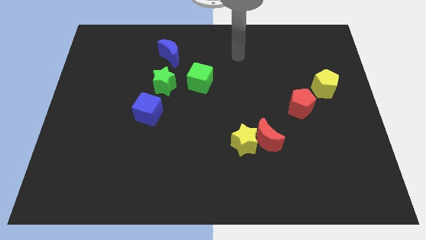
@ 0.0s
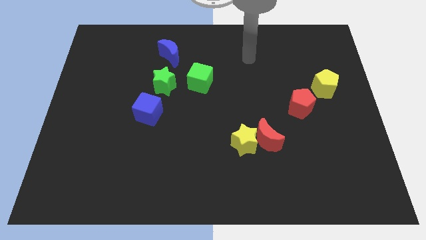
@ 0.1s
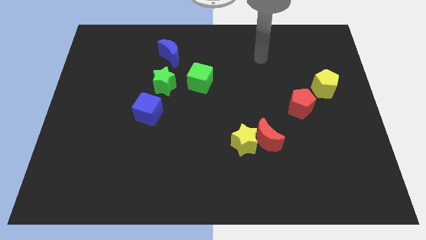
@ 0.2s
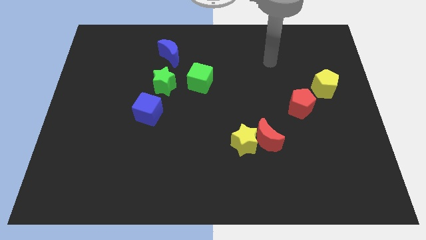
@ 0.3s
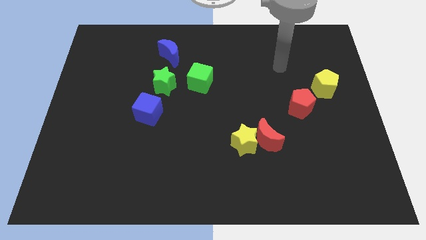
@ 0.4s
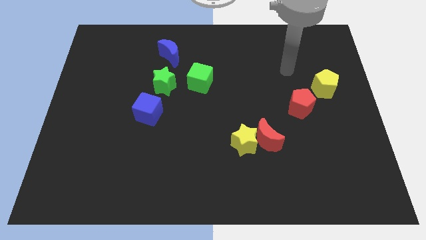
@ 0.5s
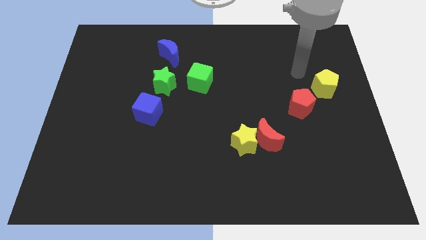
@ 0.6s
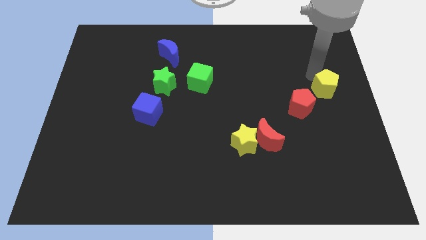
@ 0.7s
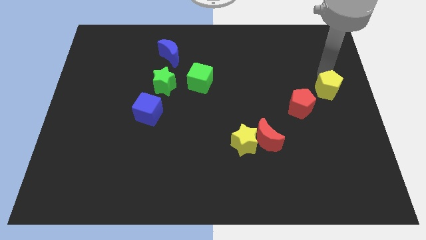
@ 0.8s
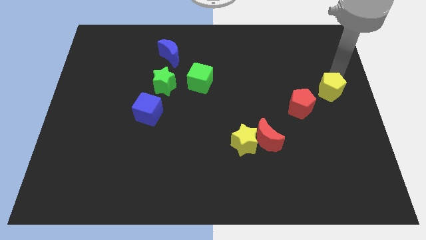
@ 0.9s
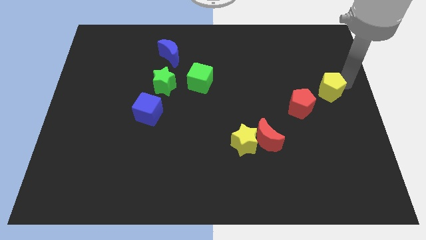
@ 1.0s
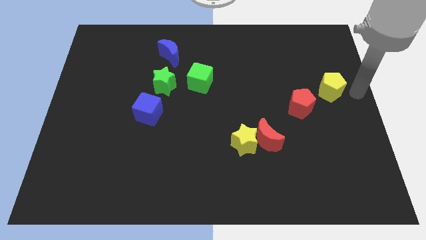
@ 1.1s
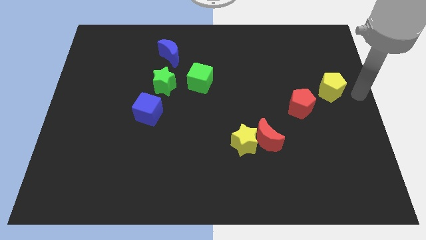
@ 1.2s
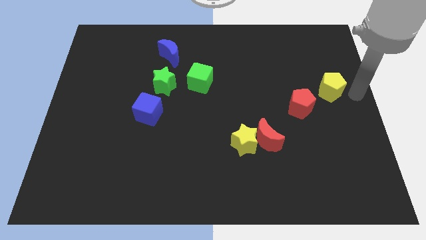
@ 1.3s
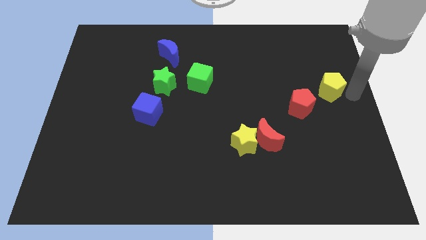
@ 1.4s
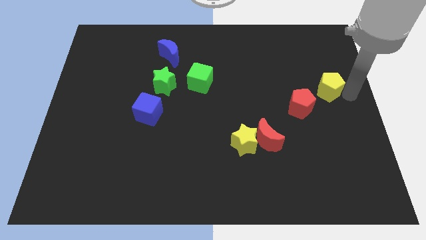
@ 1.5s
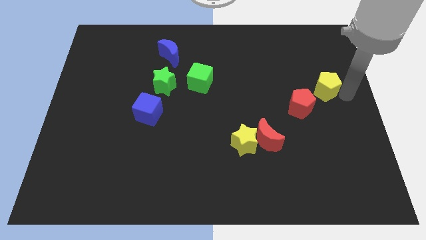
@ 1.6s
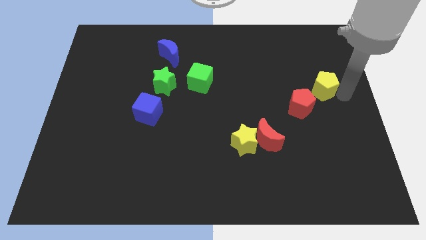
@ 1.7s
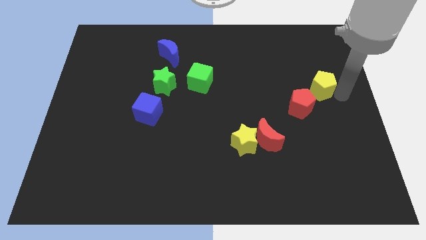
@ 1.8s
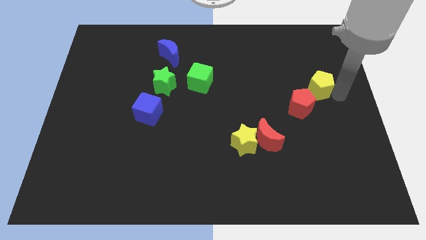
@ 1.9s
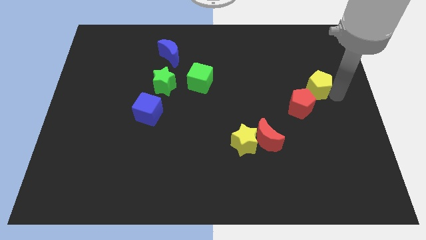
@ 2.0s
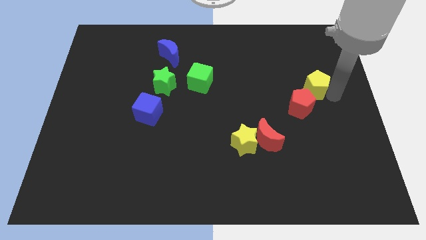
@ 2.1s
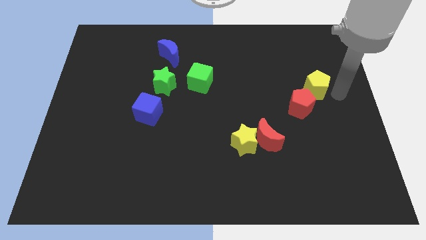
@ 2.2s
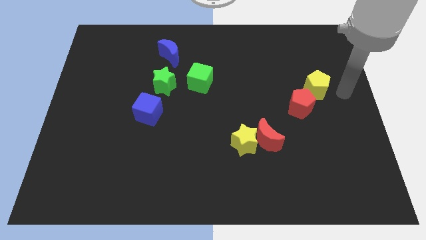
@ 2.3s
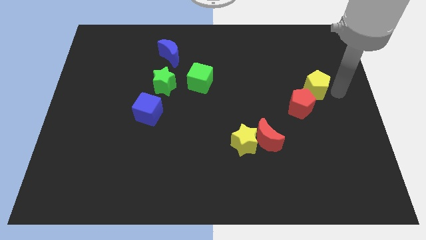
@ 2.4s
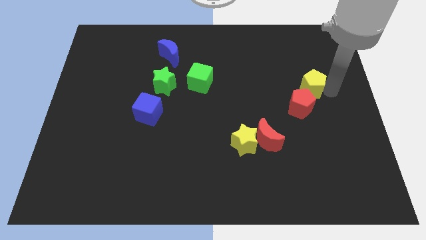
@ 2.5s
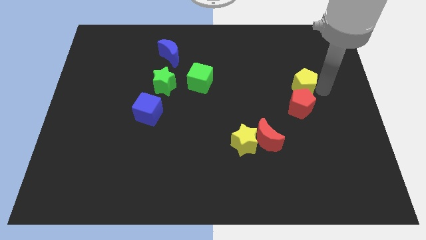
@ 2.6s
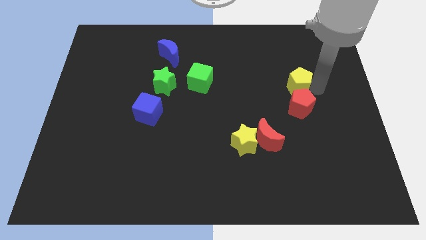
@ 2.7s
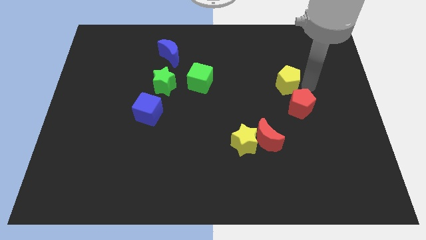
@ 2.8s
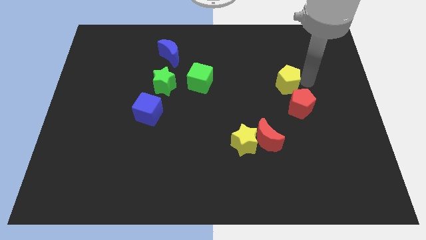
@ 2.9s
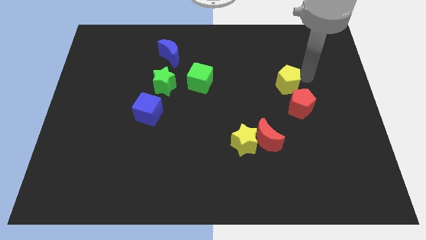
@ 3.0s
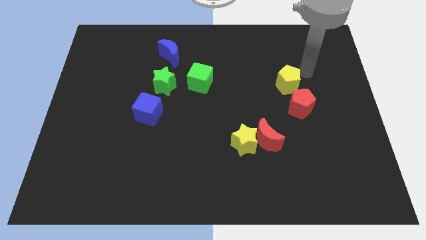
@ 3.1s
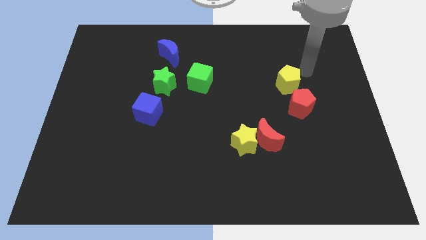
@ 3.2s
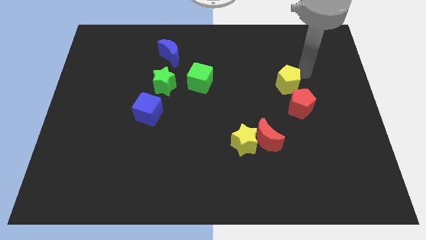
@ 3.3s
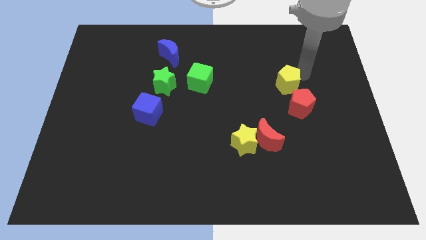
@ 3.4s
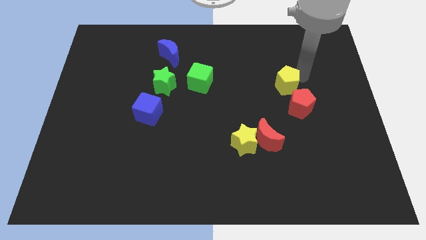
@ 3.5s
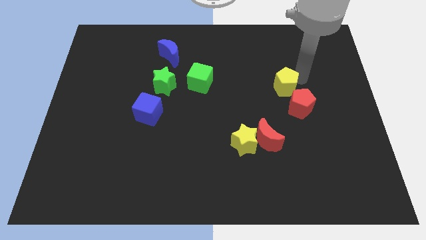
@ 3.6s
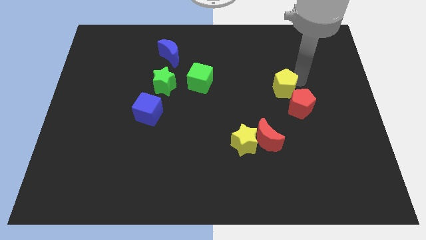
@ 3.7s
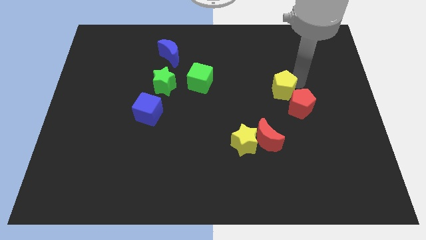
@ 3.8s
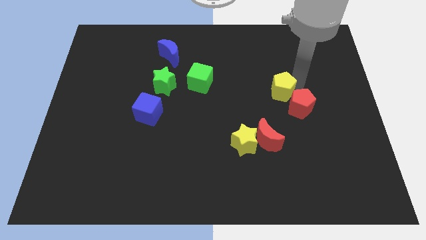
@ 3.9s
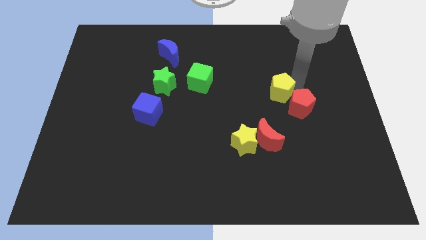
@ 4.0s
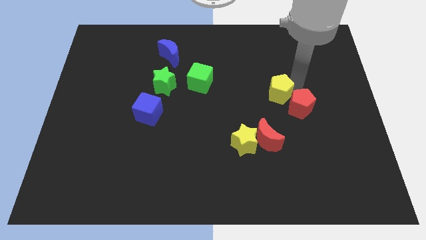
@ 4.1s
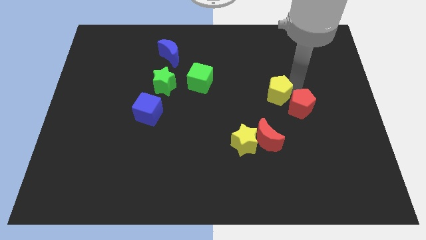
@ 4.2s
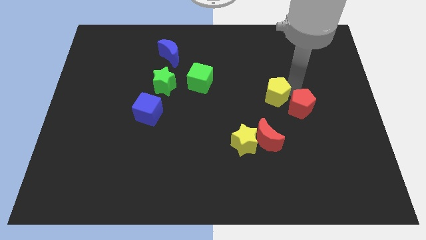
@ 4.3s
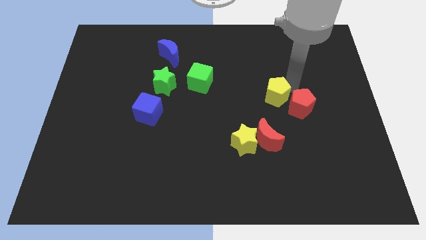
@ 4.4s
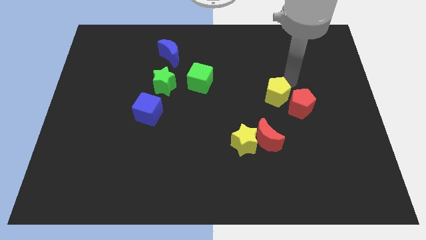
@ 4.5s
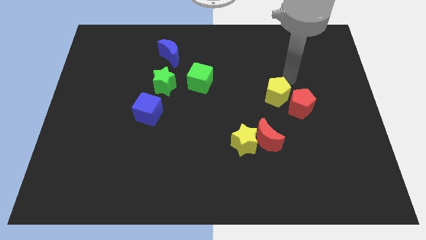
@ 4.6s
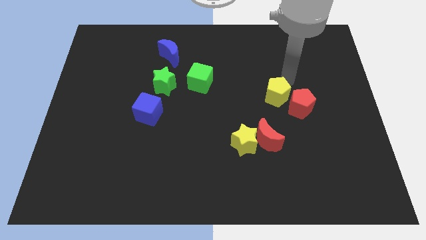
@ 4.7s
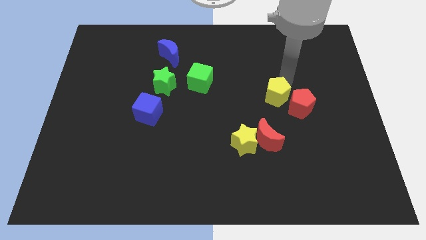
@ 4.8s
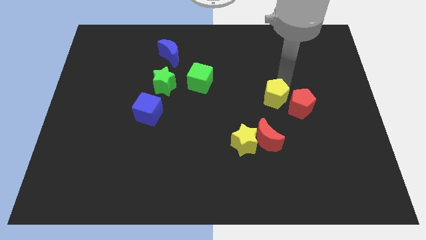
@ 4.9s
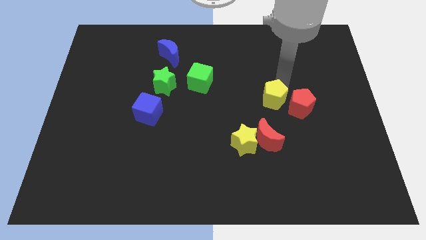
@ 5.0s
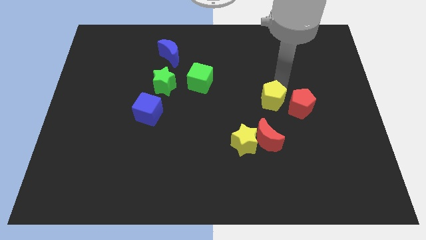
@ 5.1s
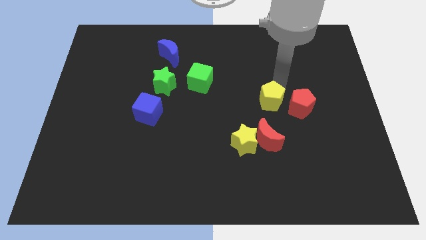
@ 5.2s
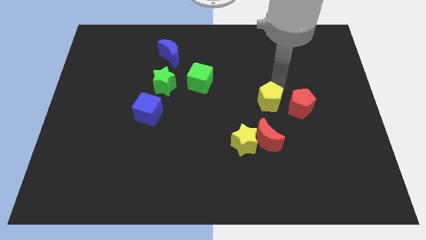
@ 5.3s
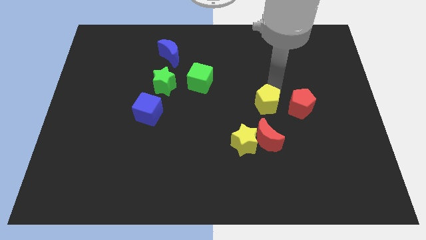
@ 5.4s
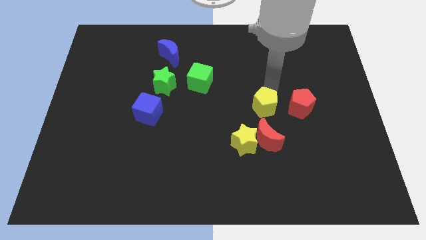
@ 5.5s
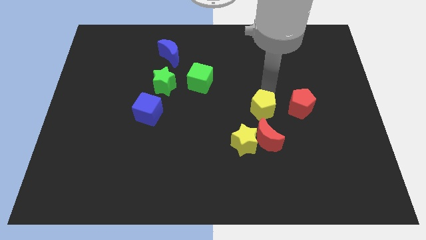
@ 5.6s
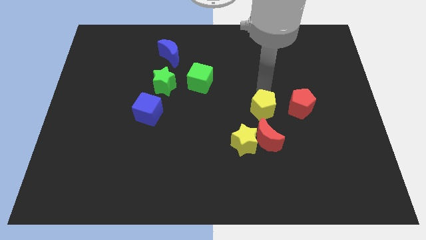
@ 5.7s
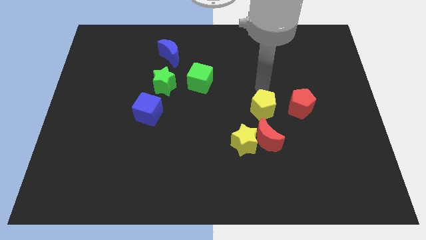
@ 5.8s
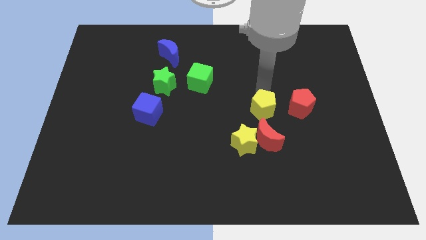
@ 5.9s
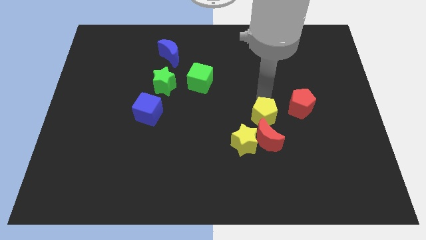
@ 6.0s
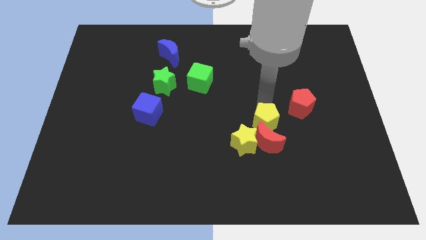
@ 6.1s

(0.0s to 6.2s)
put the yellow pentagon towards the red moon

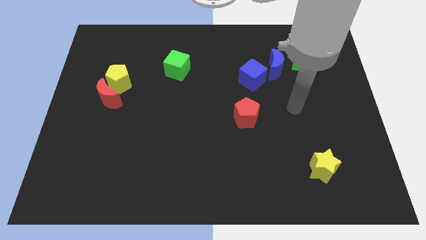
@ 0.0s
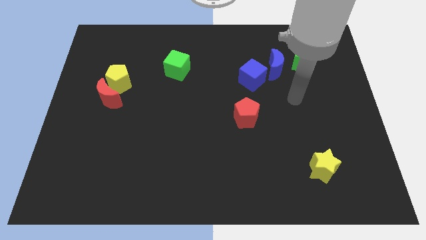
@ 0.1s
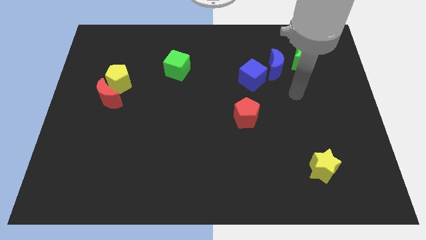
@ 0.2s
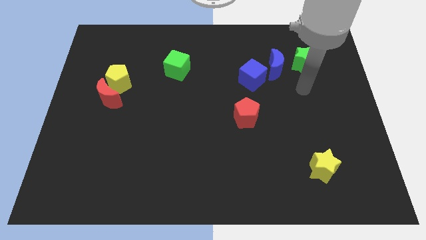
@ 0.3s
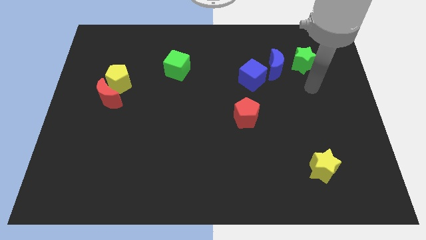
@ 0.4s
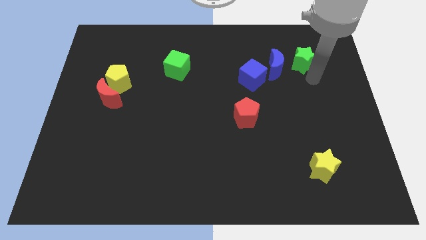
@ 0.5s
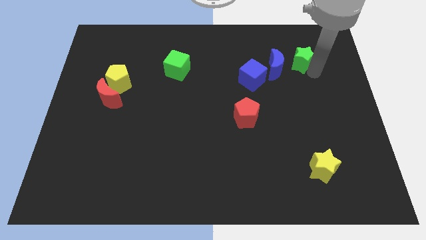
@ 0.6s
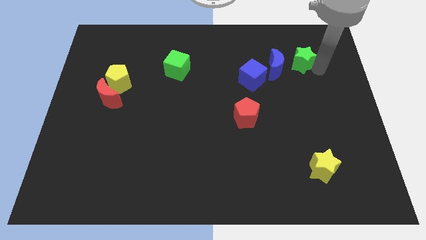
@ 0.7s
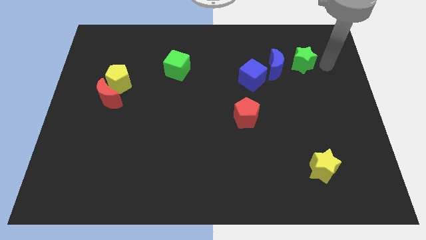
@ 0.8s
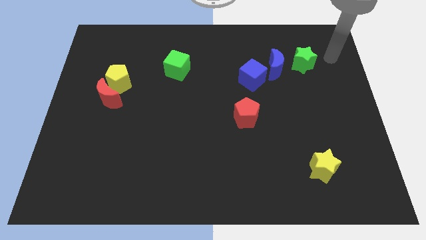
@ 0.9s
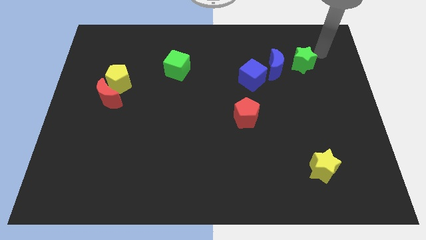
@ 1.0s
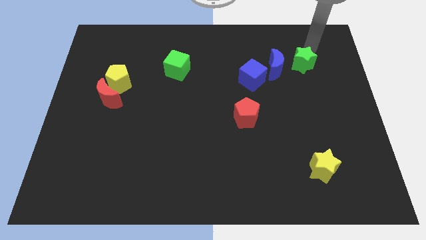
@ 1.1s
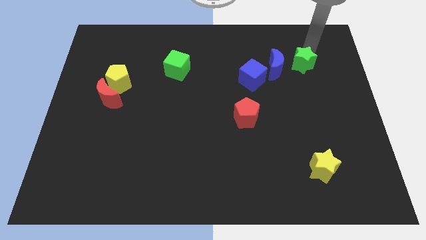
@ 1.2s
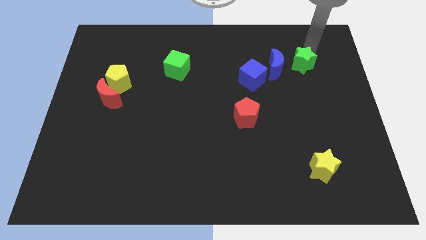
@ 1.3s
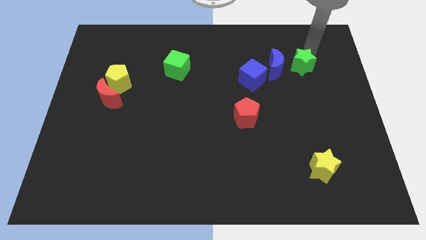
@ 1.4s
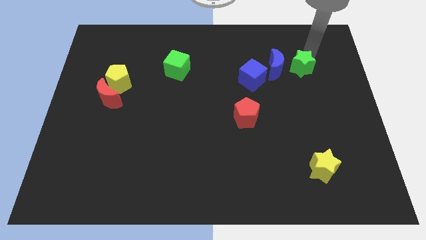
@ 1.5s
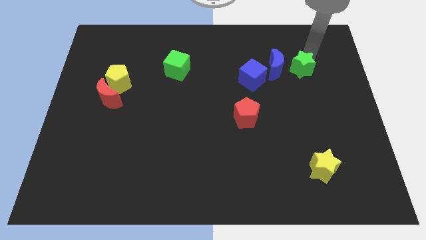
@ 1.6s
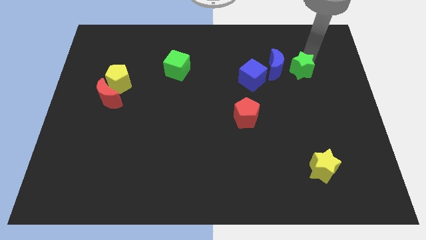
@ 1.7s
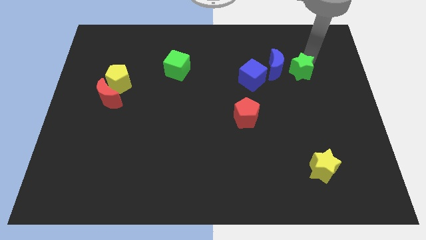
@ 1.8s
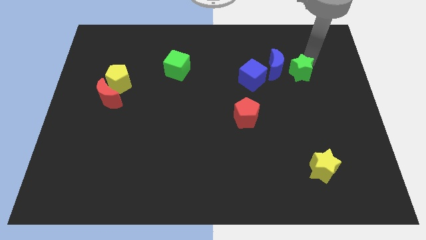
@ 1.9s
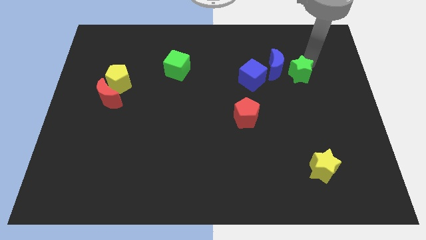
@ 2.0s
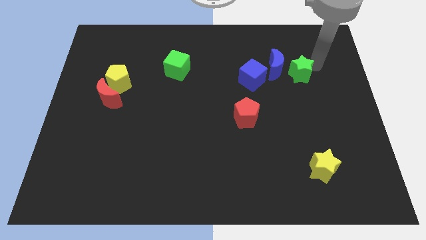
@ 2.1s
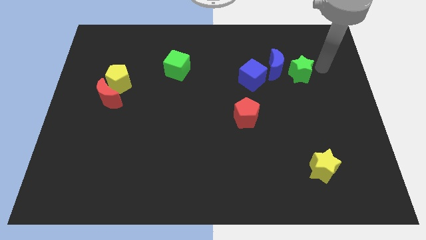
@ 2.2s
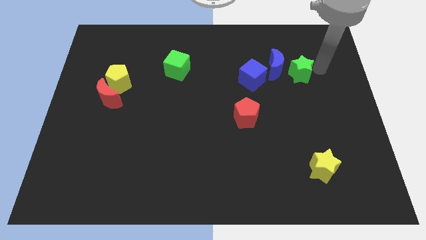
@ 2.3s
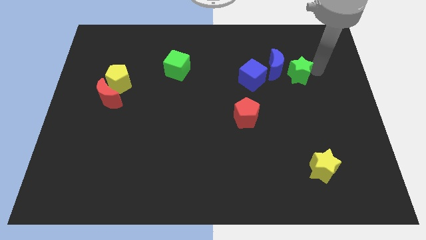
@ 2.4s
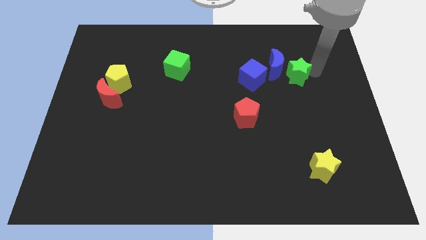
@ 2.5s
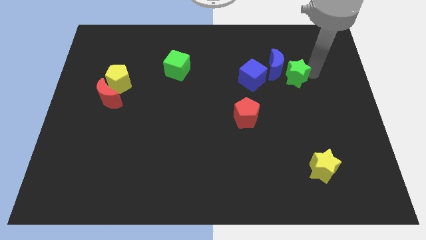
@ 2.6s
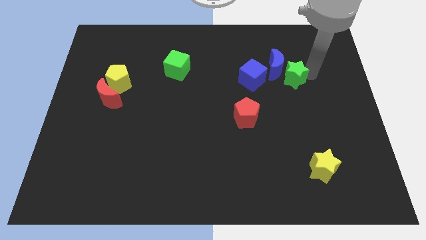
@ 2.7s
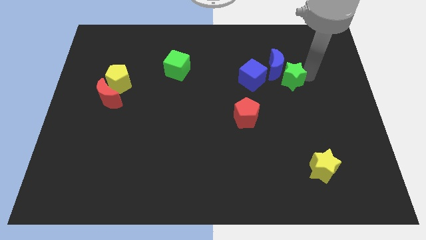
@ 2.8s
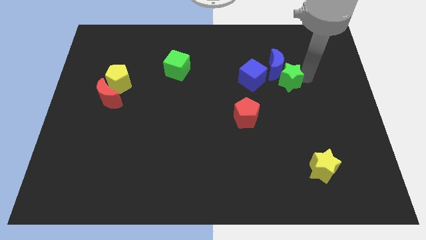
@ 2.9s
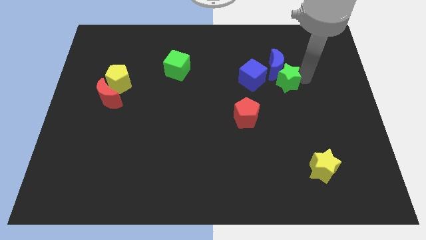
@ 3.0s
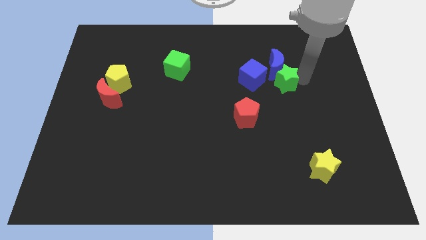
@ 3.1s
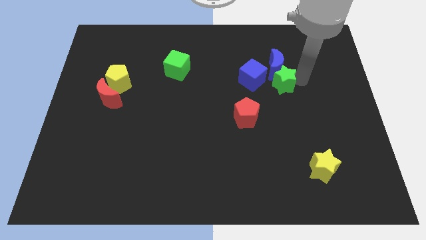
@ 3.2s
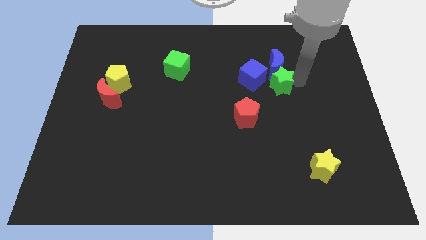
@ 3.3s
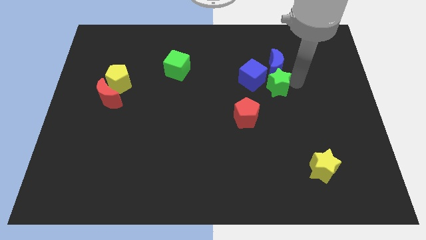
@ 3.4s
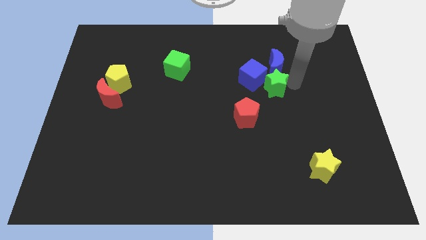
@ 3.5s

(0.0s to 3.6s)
slide the green star next to the blue cube
